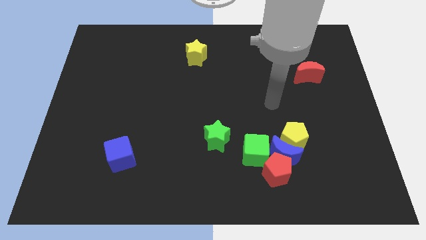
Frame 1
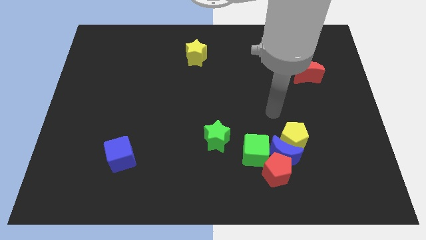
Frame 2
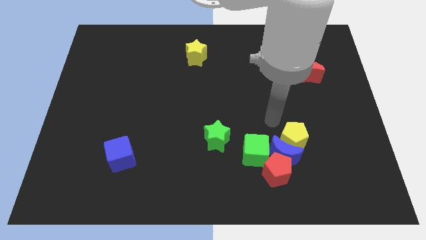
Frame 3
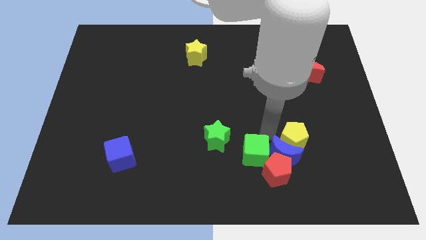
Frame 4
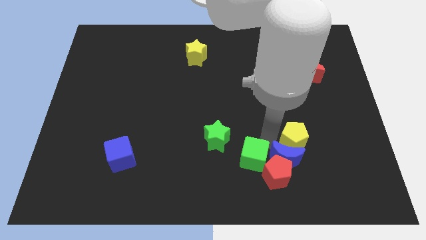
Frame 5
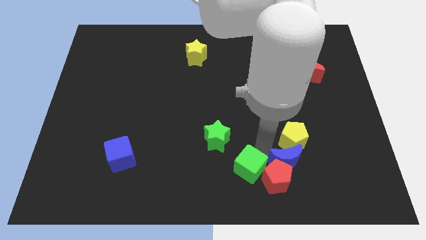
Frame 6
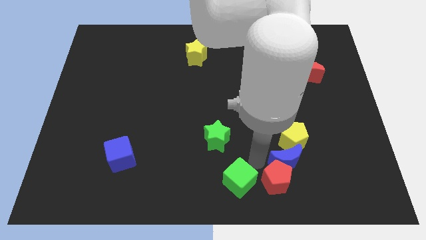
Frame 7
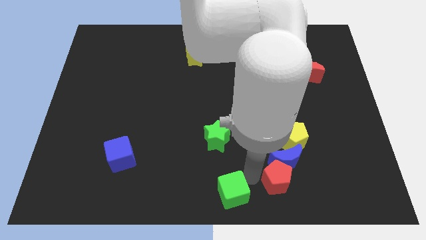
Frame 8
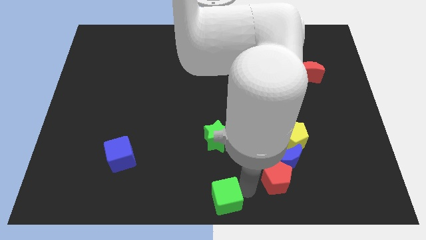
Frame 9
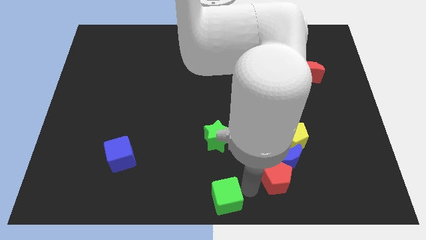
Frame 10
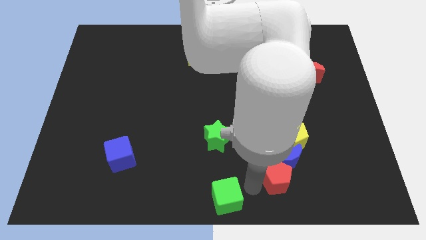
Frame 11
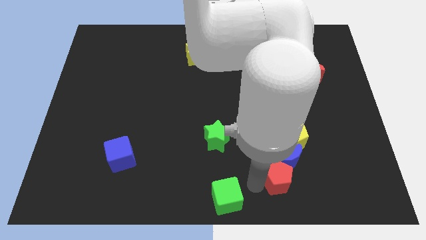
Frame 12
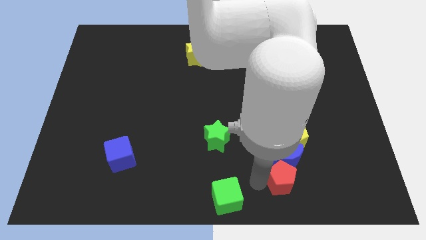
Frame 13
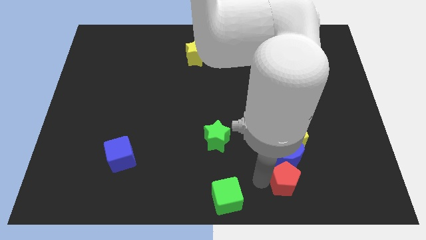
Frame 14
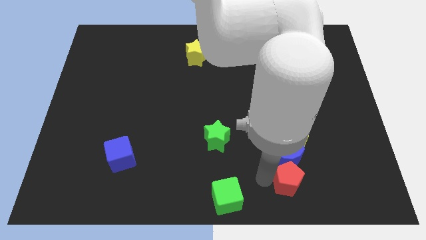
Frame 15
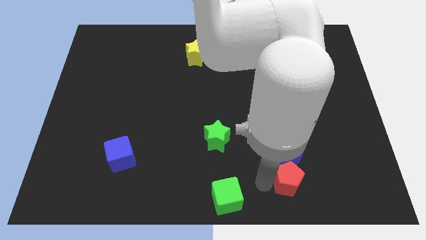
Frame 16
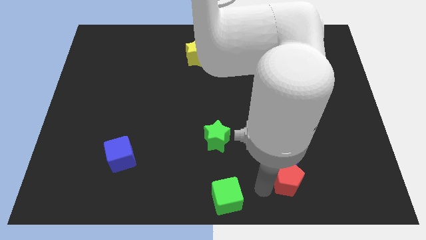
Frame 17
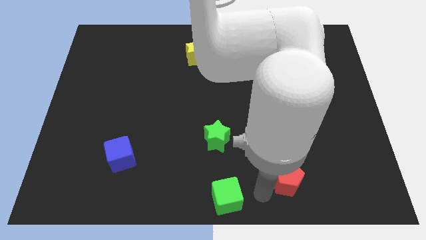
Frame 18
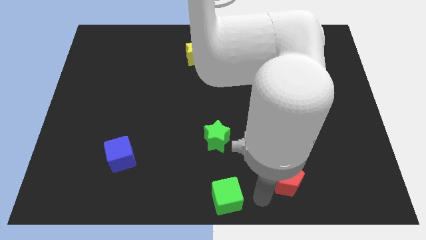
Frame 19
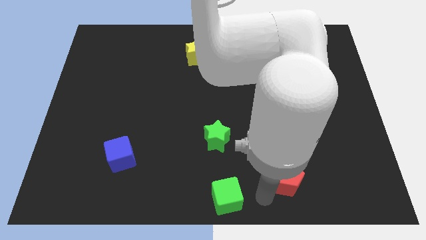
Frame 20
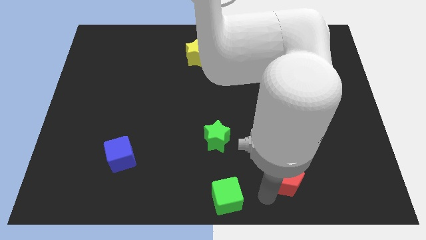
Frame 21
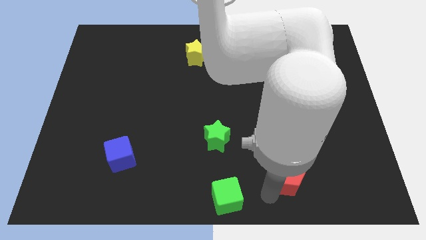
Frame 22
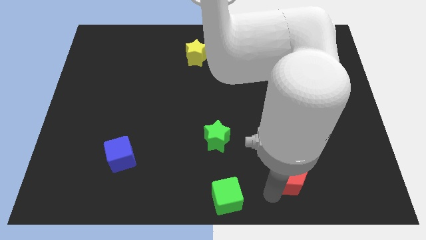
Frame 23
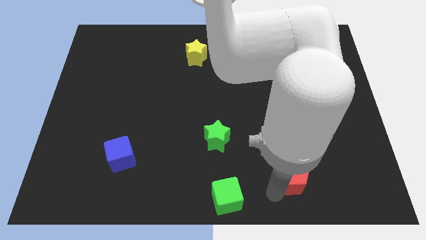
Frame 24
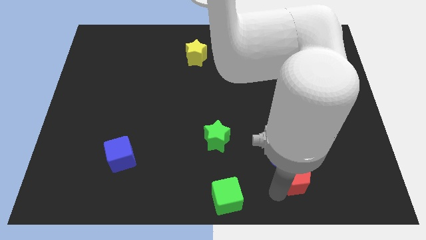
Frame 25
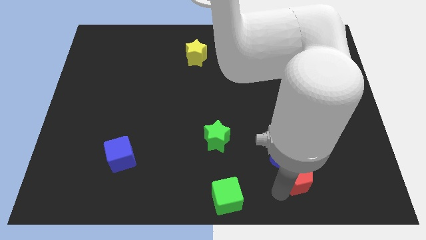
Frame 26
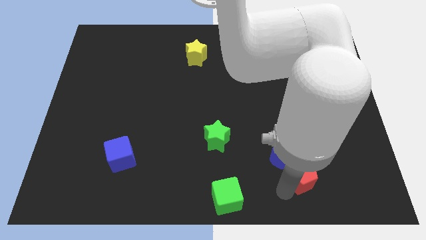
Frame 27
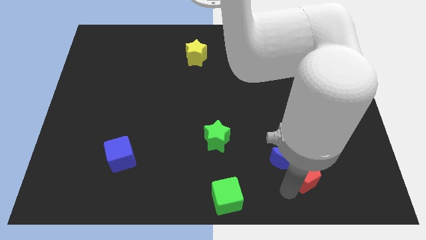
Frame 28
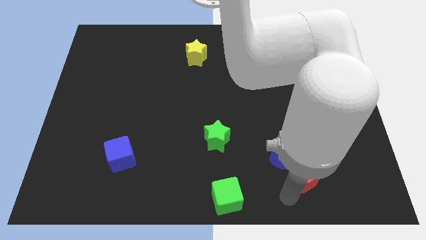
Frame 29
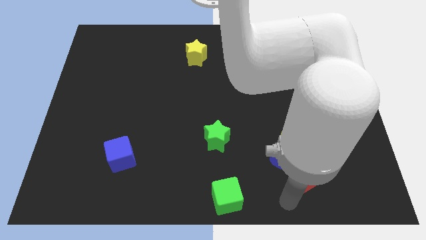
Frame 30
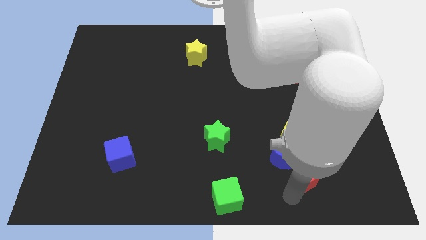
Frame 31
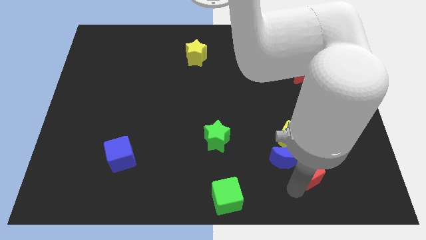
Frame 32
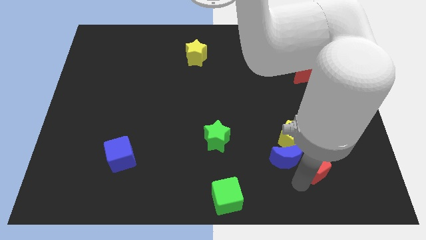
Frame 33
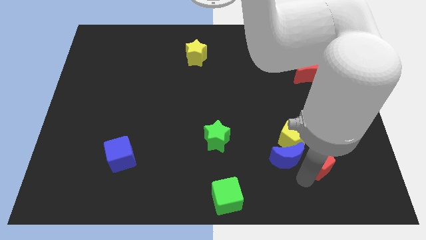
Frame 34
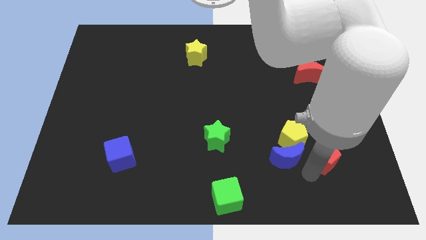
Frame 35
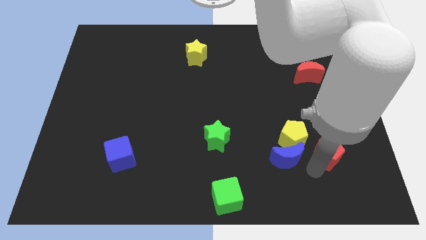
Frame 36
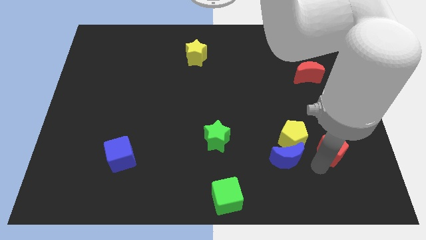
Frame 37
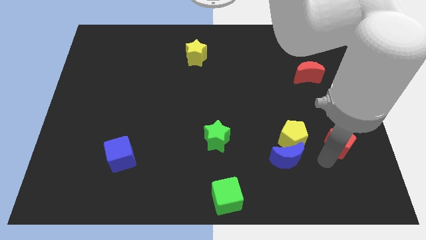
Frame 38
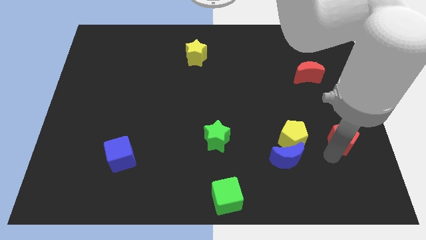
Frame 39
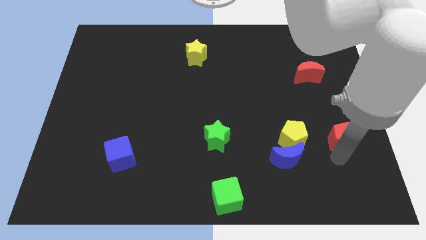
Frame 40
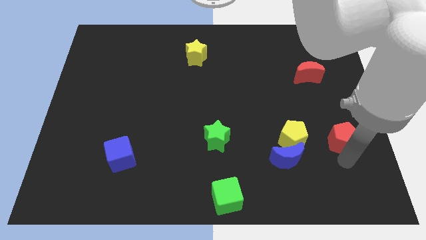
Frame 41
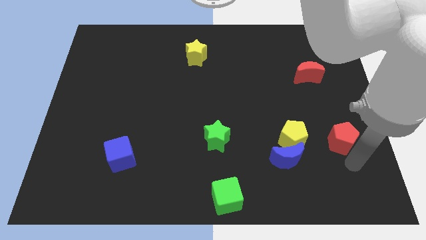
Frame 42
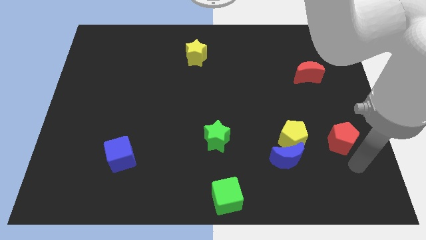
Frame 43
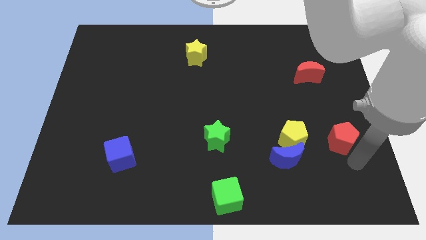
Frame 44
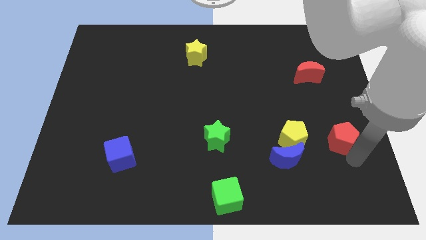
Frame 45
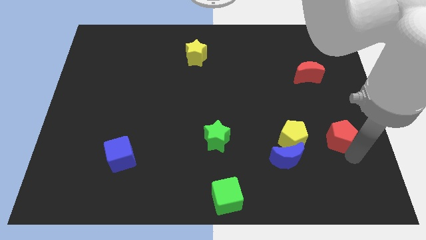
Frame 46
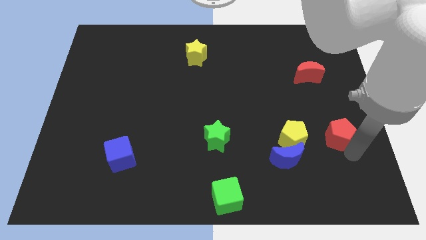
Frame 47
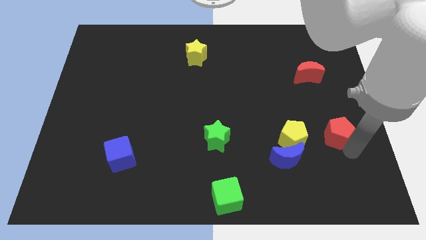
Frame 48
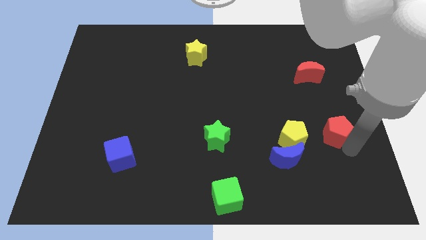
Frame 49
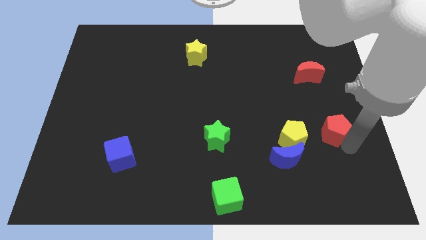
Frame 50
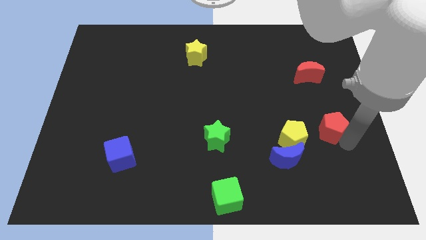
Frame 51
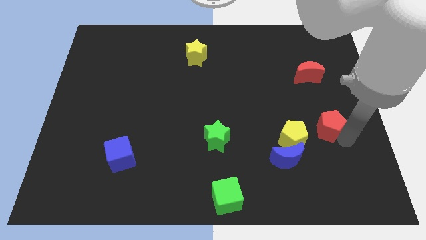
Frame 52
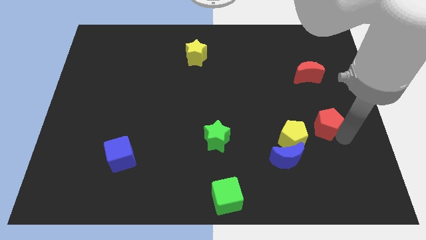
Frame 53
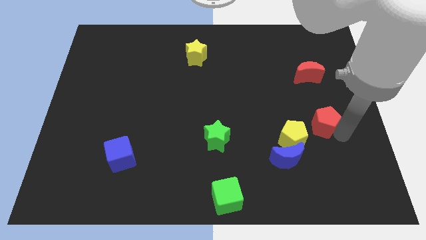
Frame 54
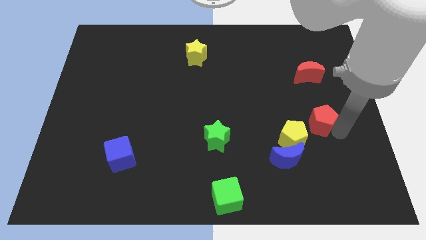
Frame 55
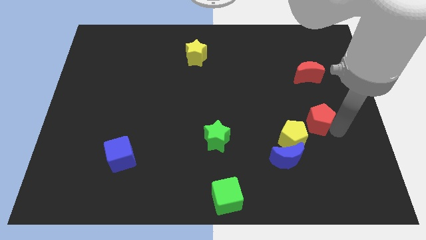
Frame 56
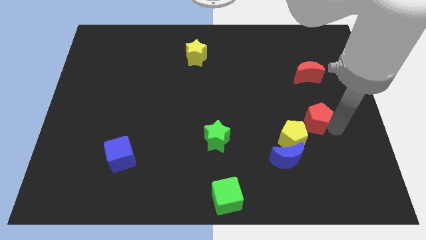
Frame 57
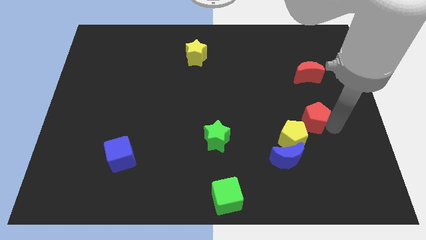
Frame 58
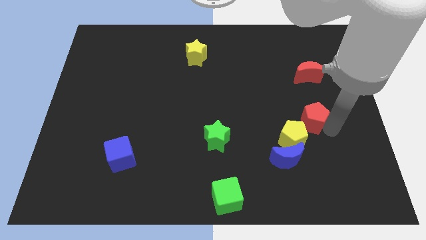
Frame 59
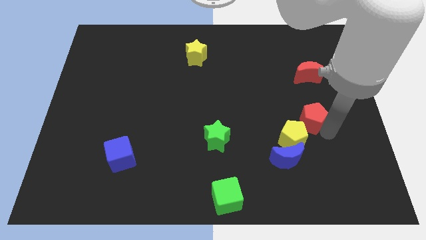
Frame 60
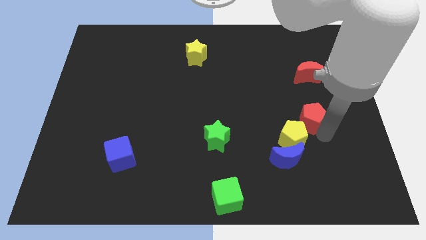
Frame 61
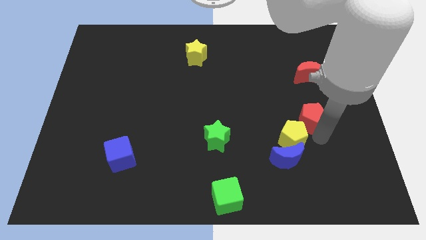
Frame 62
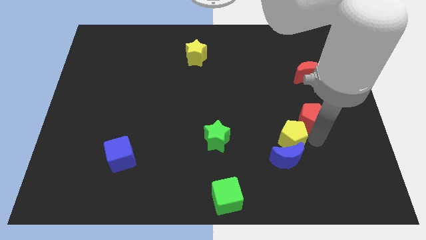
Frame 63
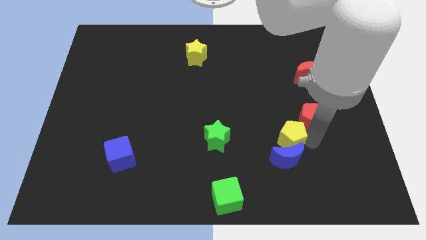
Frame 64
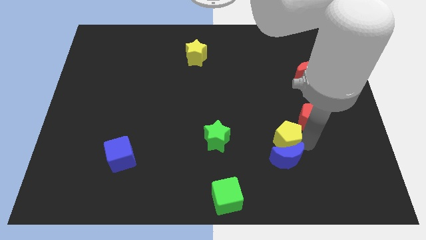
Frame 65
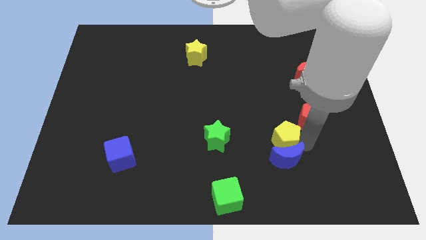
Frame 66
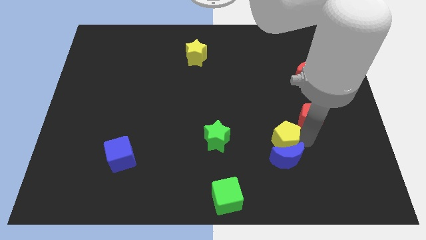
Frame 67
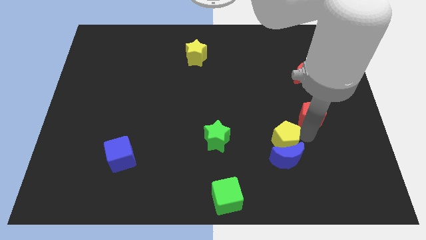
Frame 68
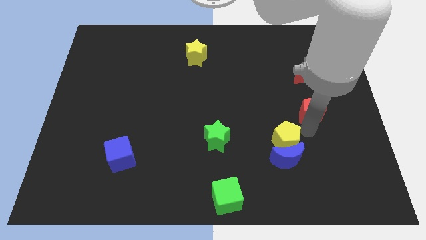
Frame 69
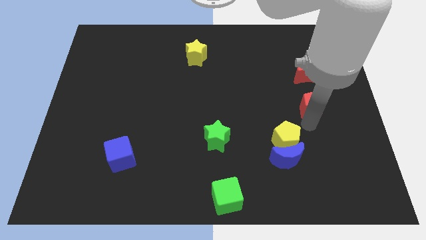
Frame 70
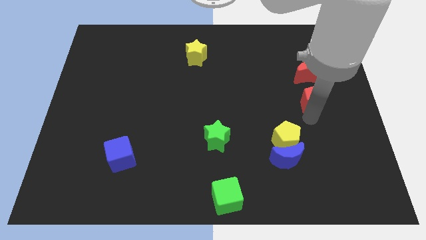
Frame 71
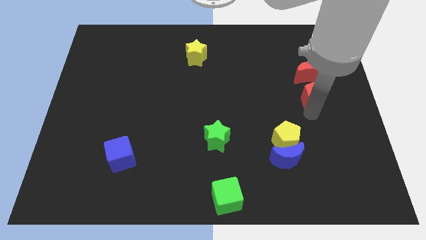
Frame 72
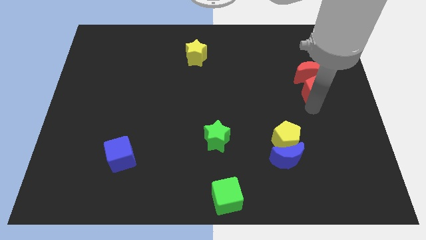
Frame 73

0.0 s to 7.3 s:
slide the red pentagon to the red moon

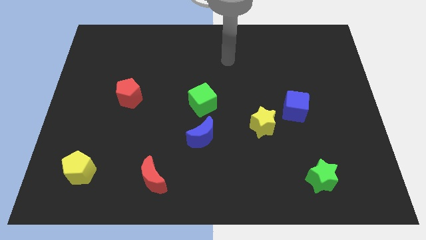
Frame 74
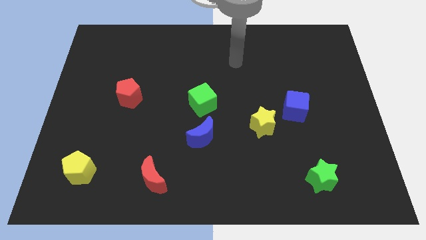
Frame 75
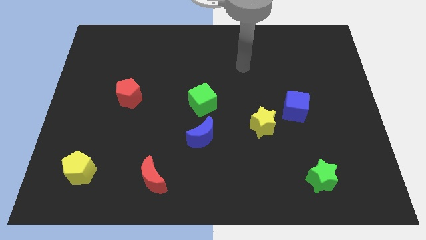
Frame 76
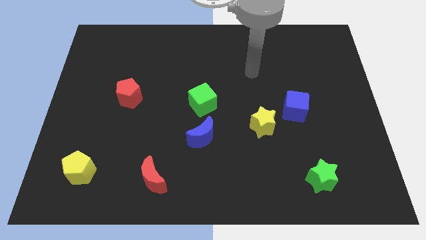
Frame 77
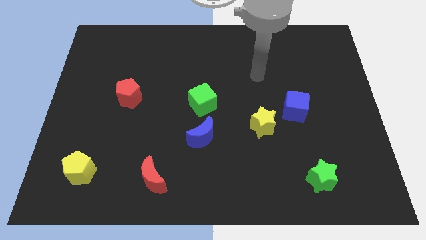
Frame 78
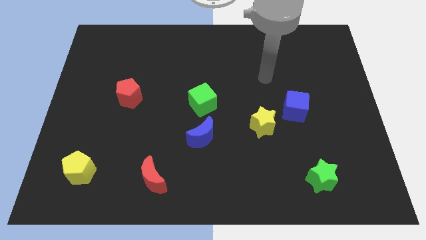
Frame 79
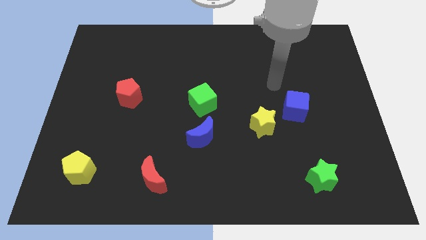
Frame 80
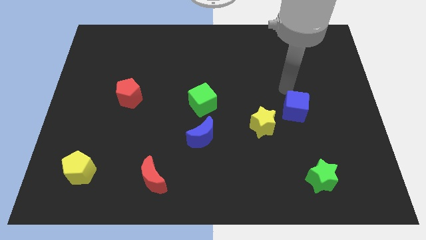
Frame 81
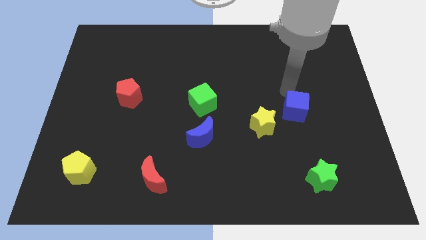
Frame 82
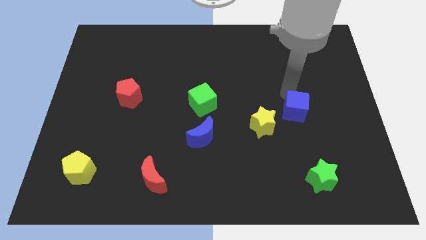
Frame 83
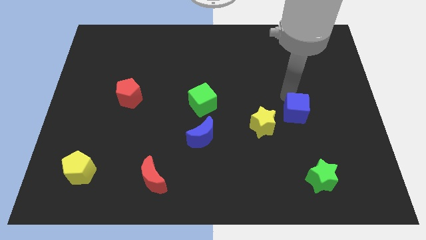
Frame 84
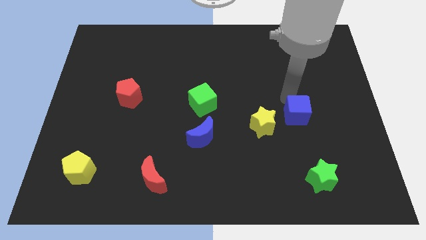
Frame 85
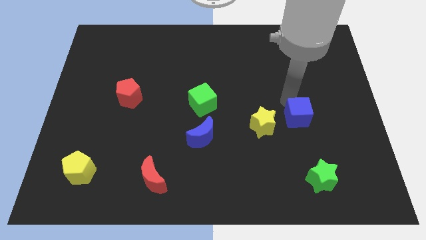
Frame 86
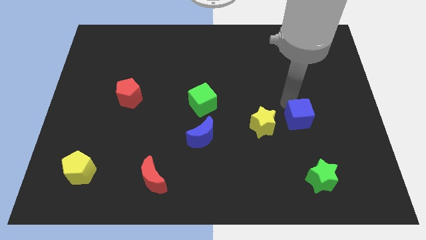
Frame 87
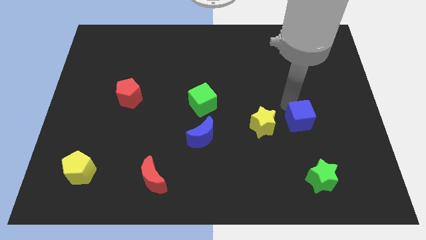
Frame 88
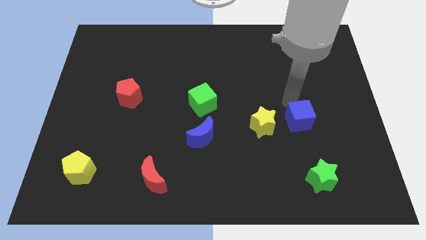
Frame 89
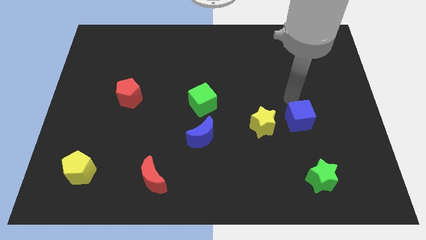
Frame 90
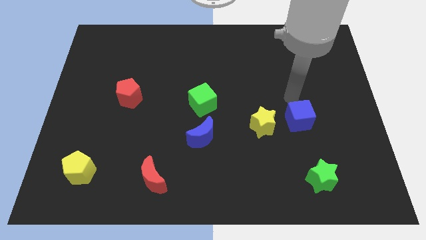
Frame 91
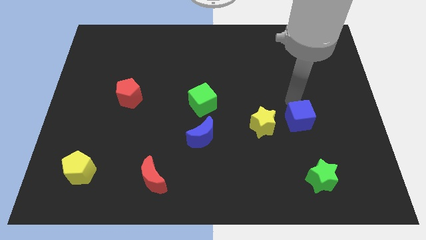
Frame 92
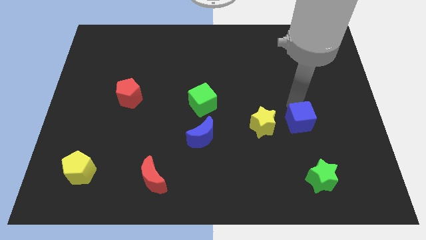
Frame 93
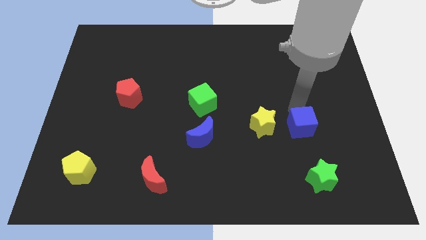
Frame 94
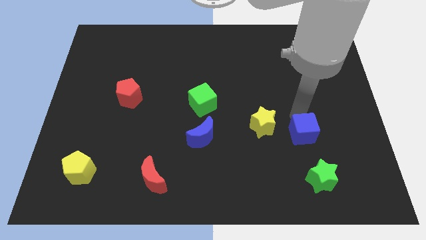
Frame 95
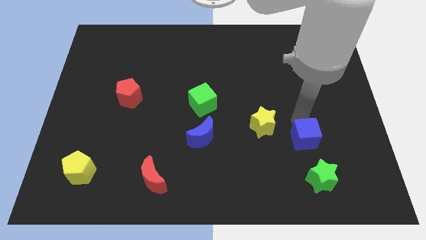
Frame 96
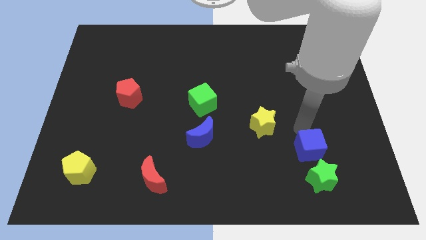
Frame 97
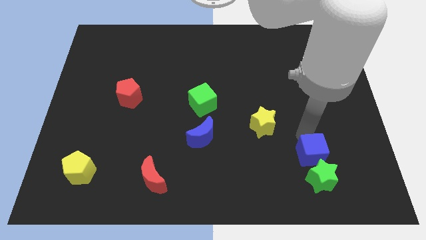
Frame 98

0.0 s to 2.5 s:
move the blue cube next to the green star
